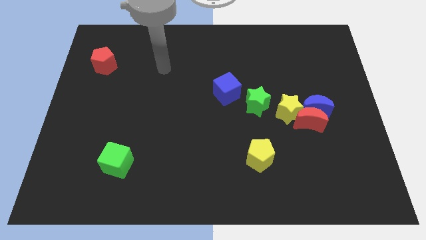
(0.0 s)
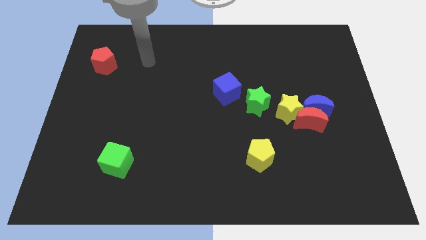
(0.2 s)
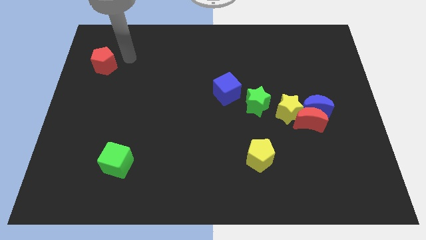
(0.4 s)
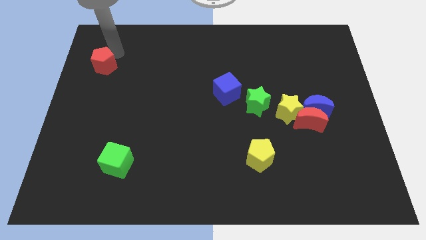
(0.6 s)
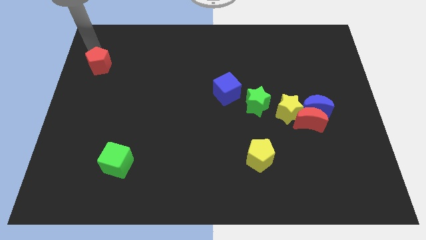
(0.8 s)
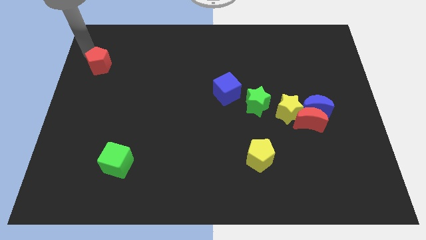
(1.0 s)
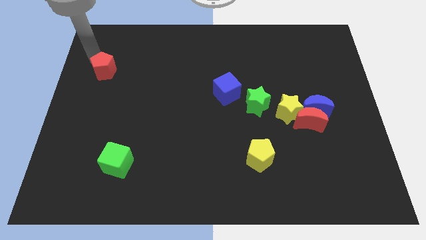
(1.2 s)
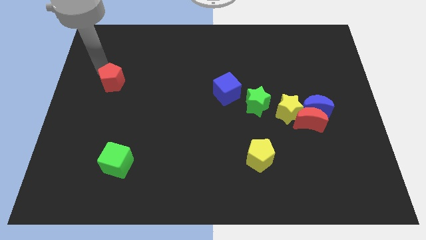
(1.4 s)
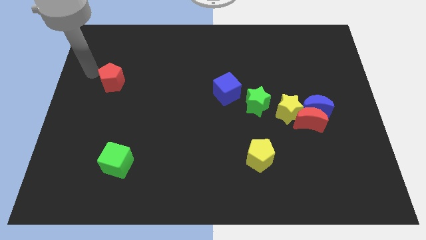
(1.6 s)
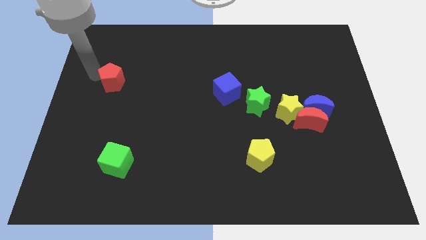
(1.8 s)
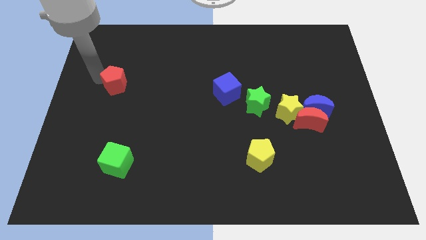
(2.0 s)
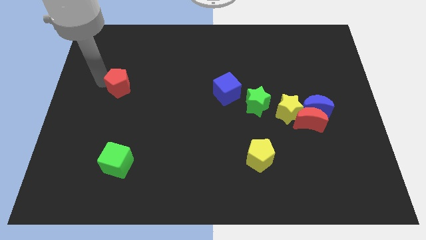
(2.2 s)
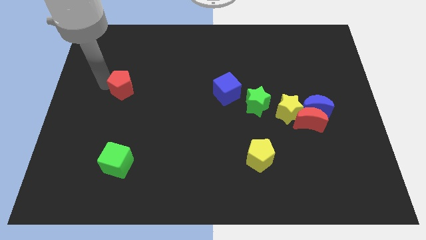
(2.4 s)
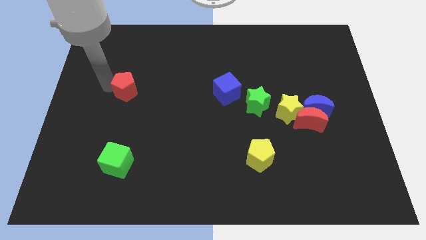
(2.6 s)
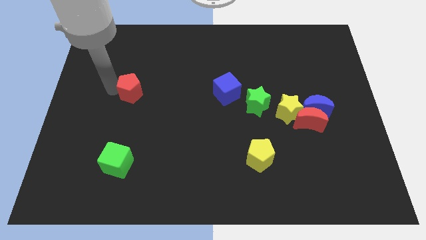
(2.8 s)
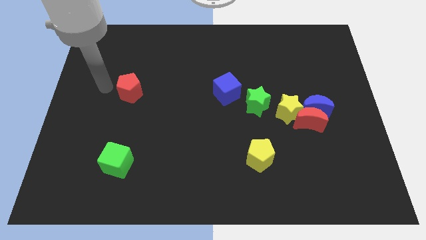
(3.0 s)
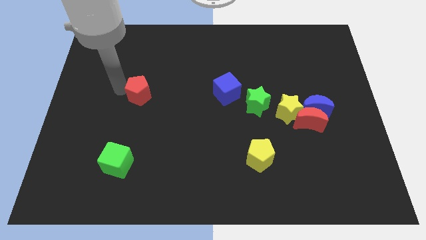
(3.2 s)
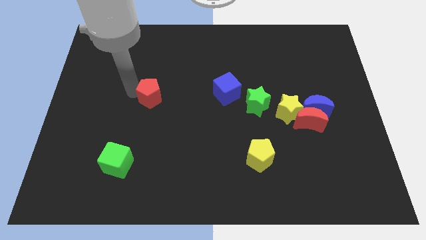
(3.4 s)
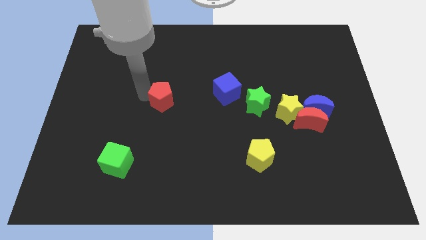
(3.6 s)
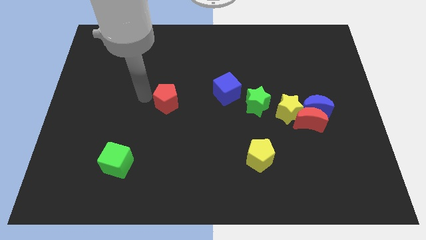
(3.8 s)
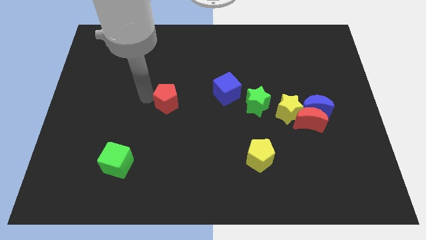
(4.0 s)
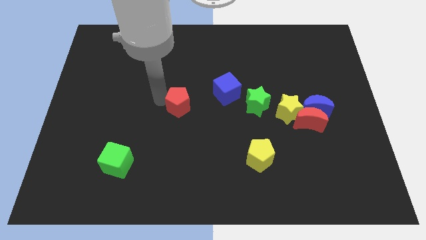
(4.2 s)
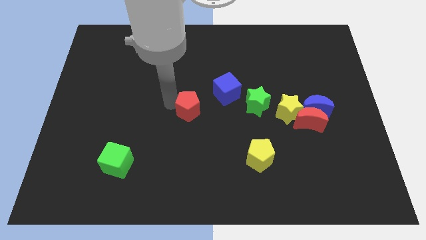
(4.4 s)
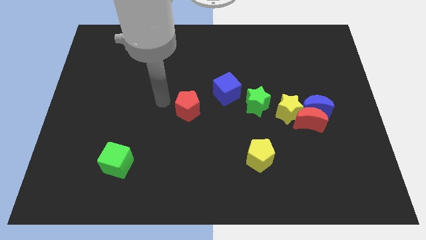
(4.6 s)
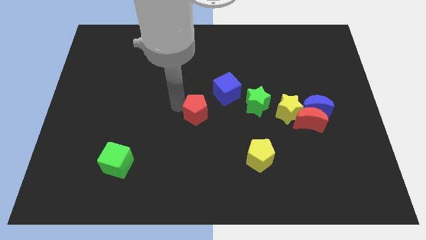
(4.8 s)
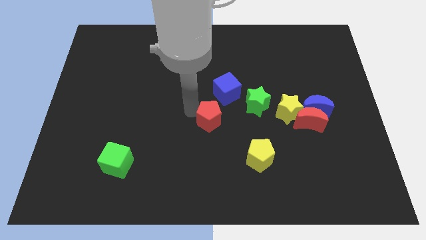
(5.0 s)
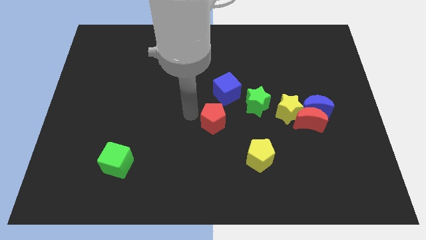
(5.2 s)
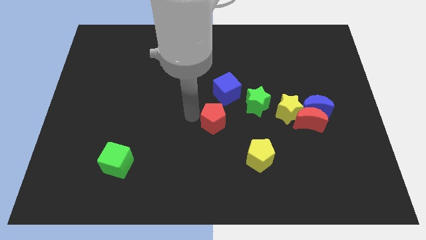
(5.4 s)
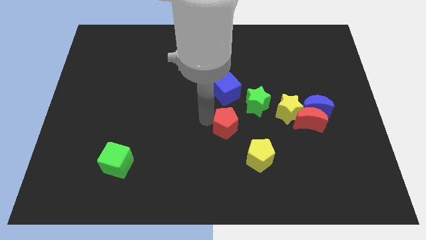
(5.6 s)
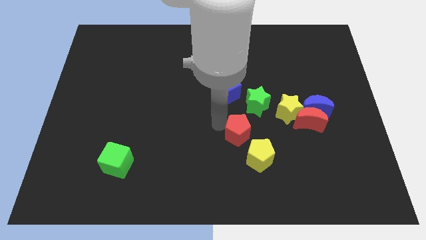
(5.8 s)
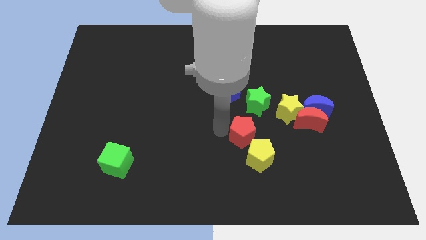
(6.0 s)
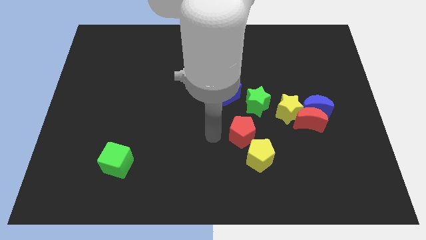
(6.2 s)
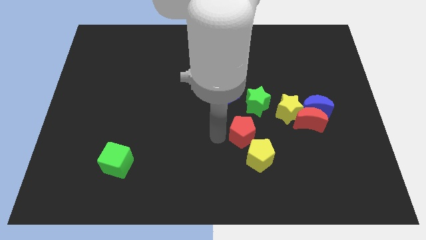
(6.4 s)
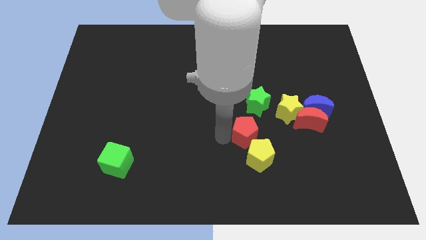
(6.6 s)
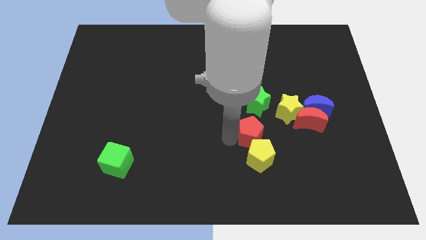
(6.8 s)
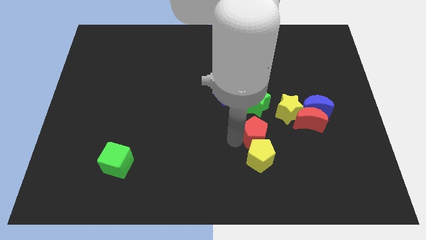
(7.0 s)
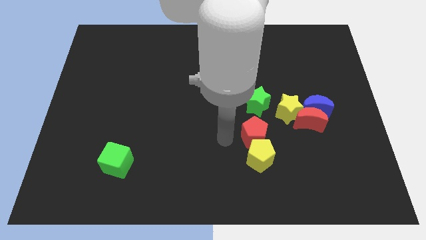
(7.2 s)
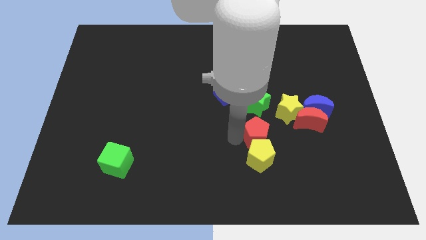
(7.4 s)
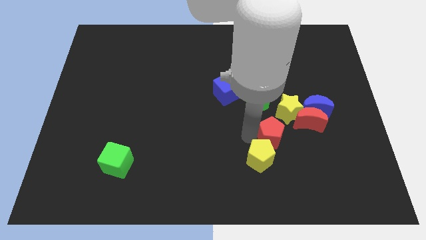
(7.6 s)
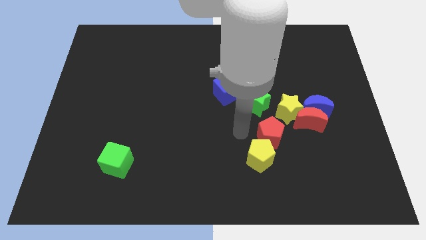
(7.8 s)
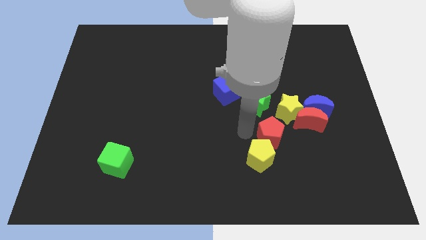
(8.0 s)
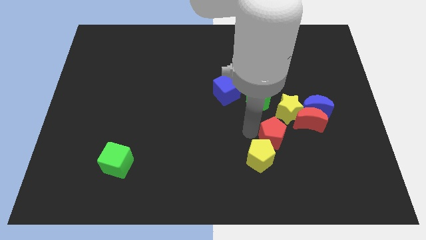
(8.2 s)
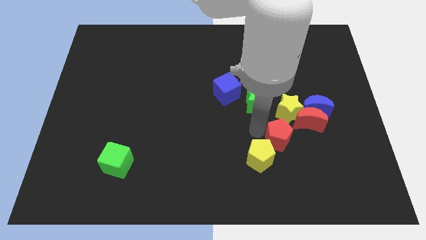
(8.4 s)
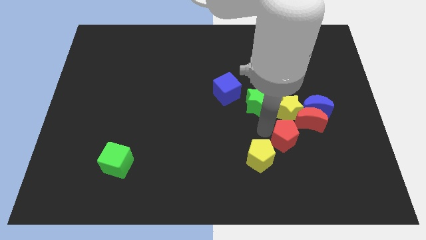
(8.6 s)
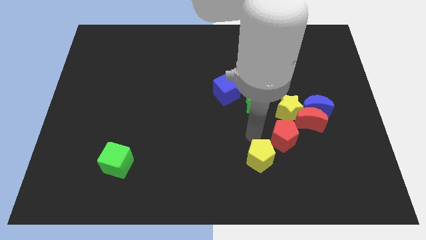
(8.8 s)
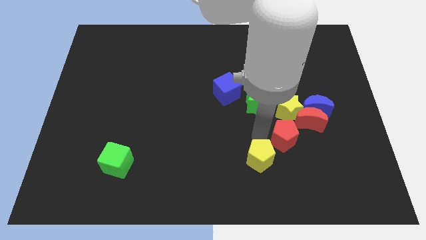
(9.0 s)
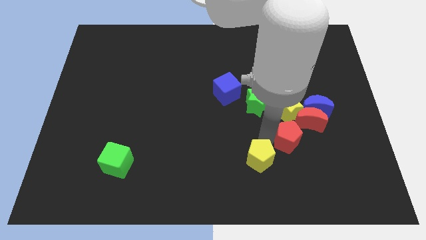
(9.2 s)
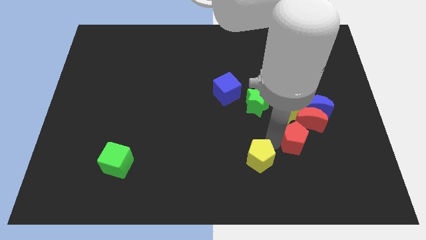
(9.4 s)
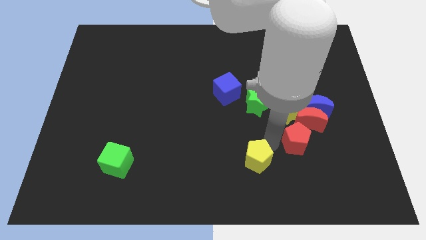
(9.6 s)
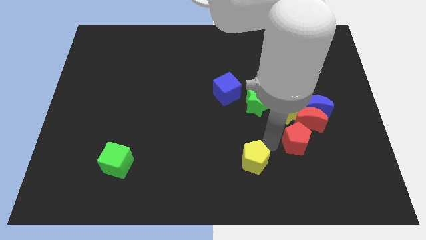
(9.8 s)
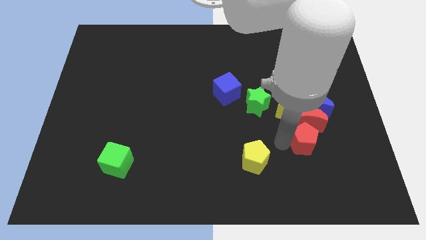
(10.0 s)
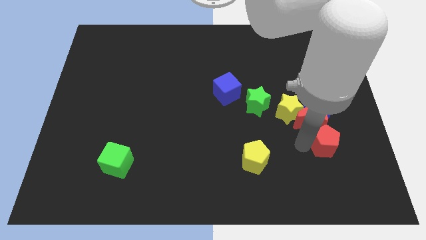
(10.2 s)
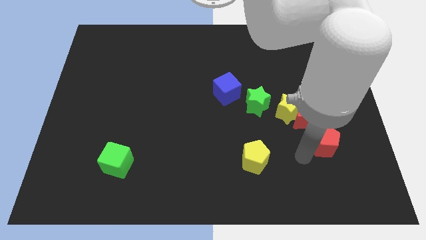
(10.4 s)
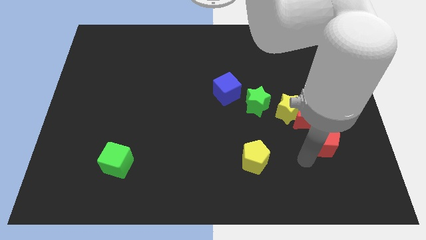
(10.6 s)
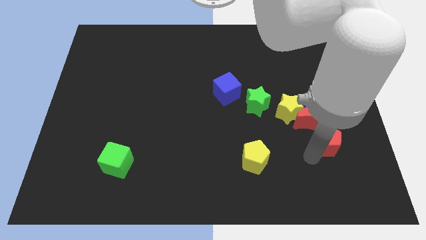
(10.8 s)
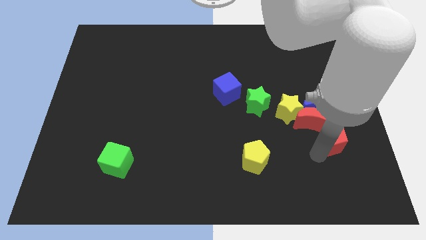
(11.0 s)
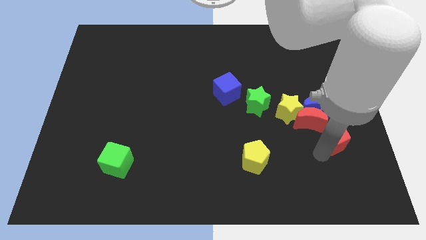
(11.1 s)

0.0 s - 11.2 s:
move the red pentagon to the bottom right side of the blue moon

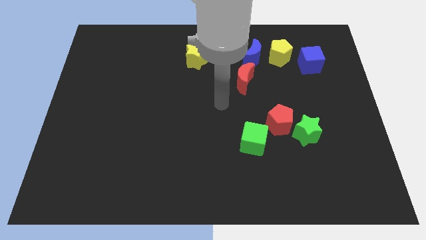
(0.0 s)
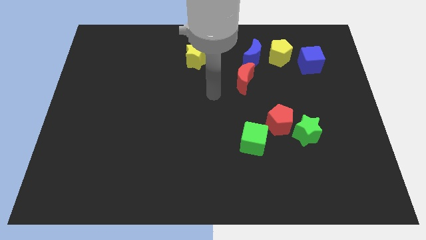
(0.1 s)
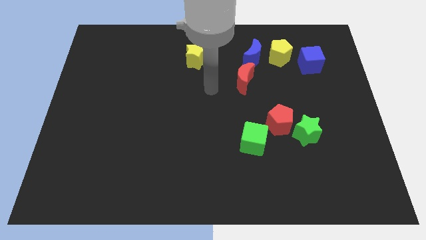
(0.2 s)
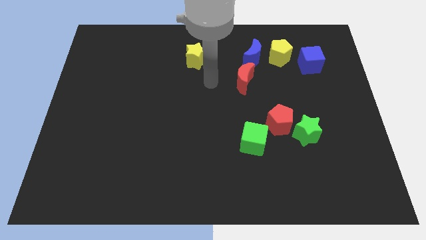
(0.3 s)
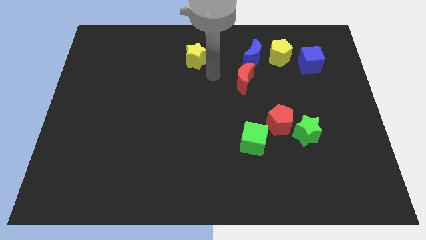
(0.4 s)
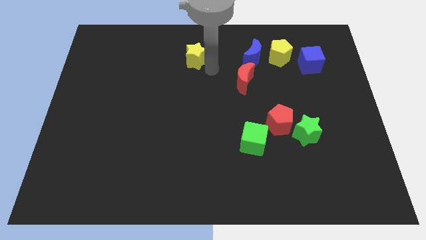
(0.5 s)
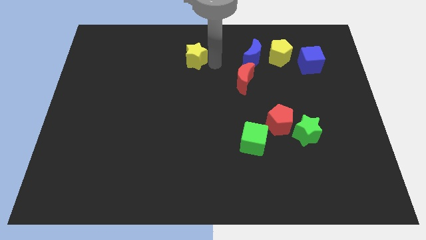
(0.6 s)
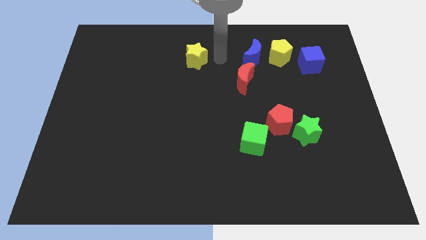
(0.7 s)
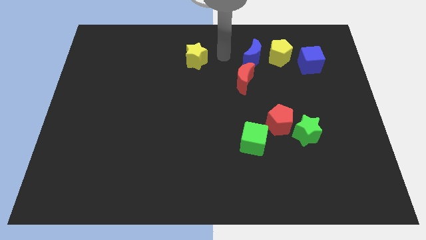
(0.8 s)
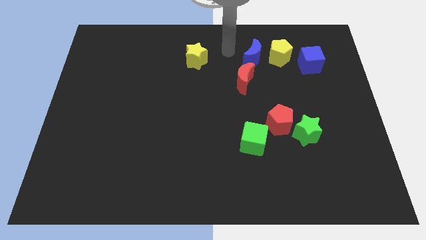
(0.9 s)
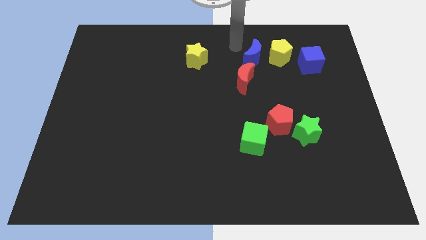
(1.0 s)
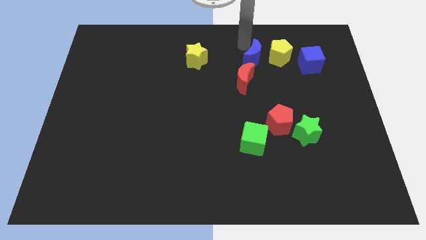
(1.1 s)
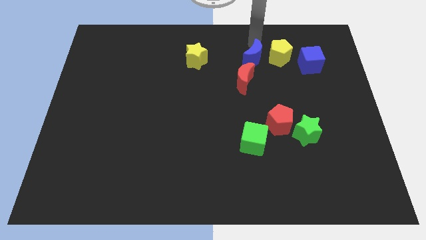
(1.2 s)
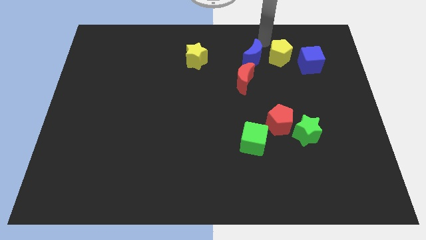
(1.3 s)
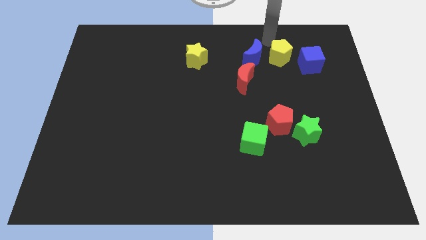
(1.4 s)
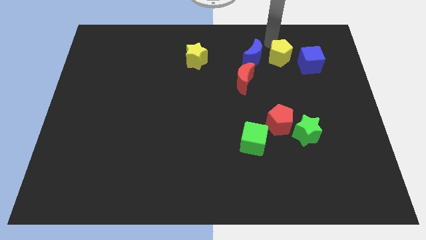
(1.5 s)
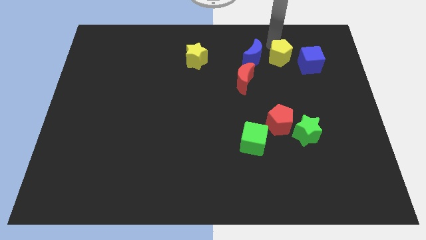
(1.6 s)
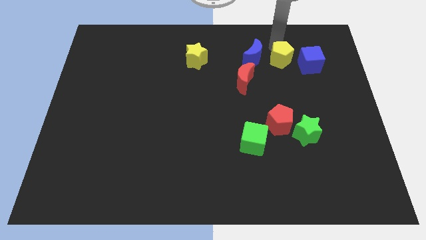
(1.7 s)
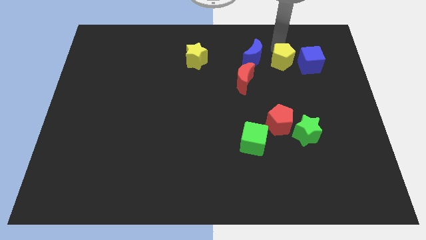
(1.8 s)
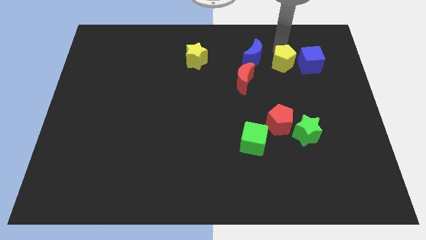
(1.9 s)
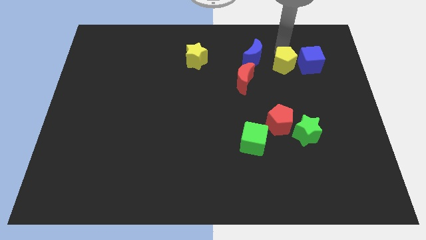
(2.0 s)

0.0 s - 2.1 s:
move the yellow pentagon to the bottom left of the blue cube

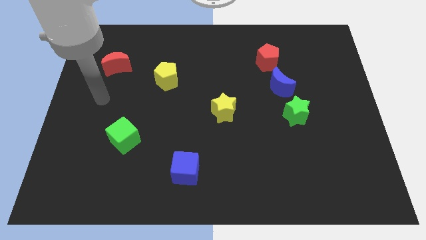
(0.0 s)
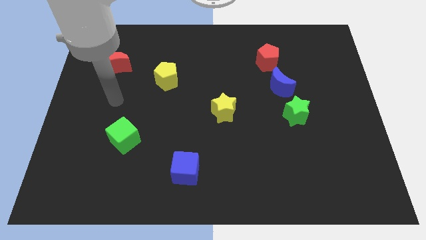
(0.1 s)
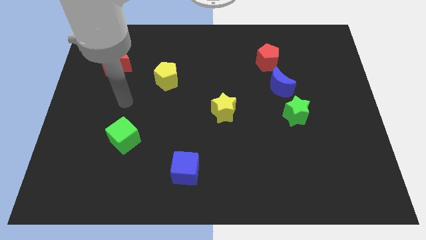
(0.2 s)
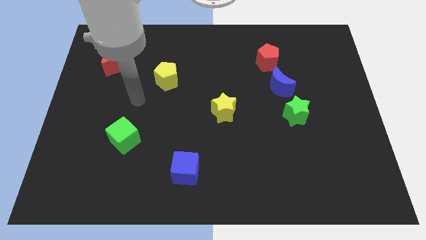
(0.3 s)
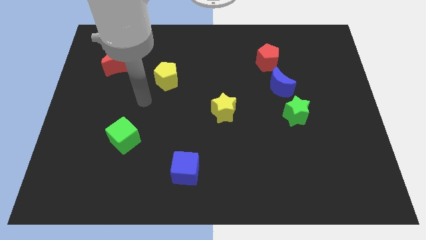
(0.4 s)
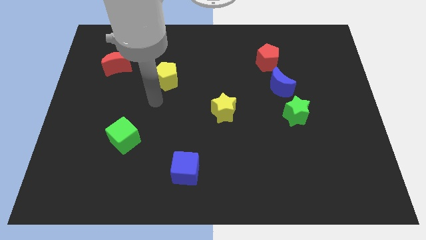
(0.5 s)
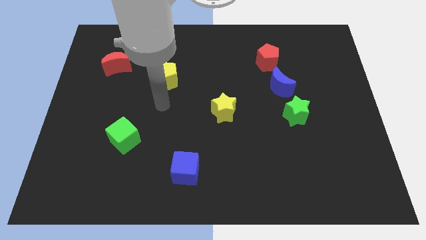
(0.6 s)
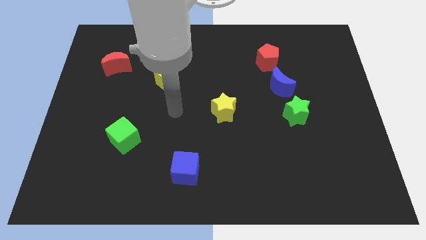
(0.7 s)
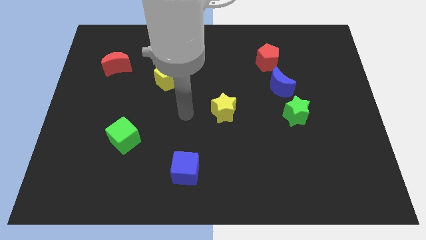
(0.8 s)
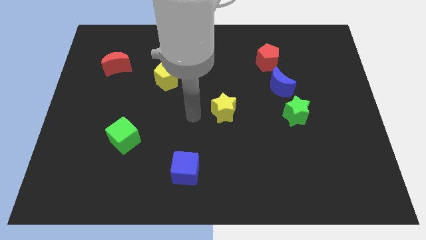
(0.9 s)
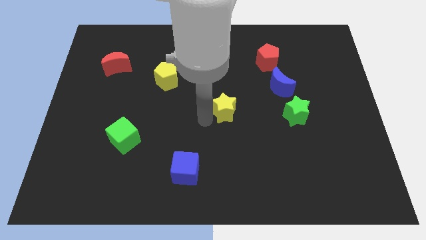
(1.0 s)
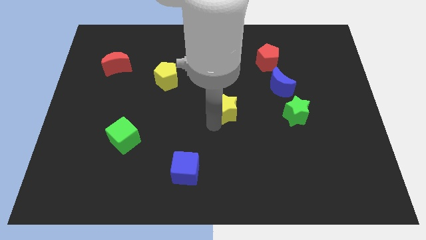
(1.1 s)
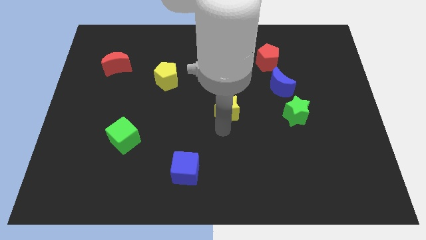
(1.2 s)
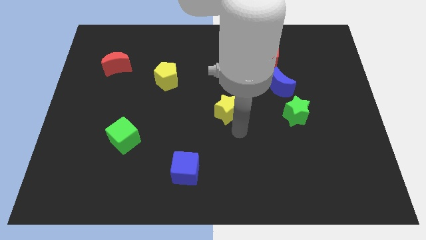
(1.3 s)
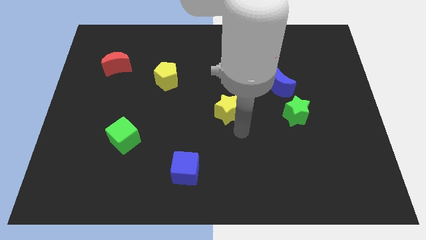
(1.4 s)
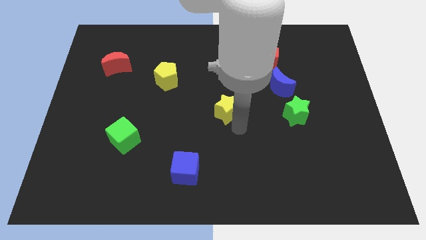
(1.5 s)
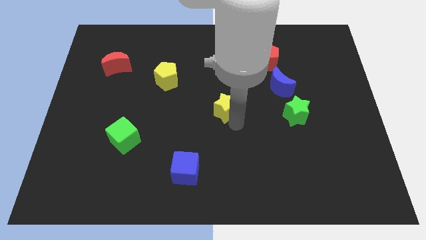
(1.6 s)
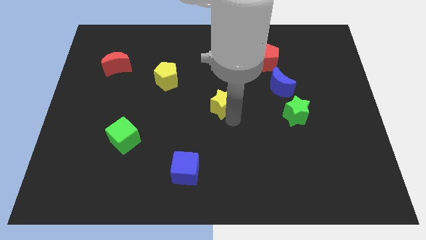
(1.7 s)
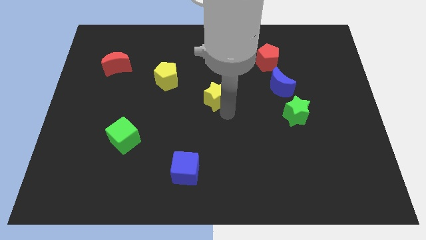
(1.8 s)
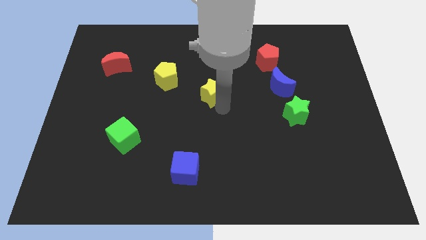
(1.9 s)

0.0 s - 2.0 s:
slide the yellow star right of the yellow pentagon
